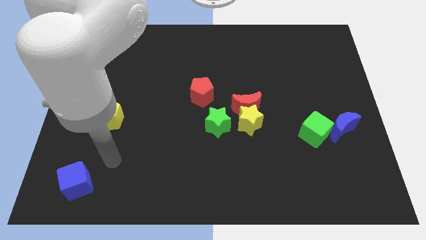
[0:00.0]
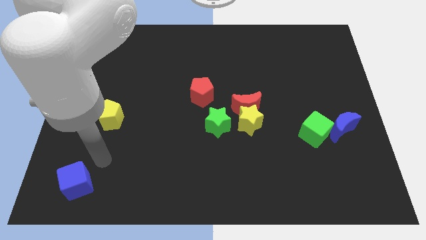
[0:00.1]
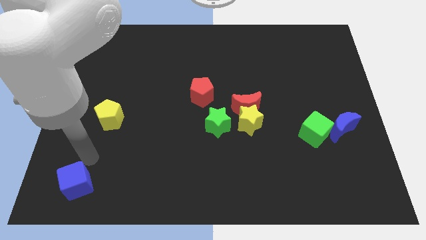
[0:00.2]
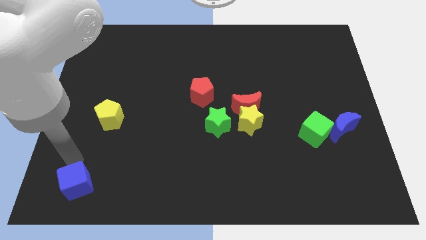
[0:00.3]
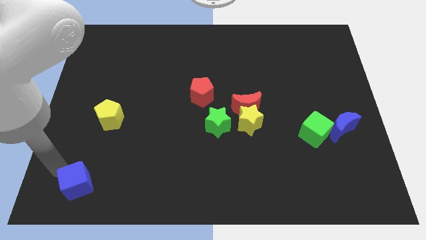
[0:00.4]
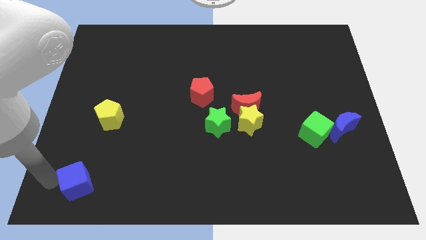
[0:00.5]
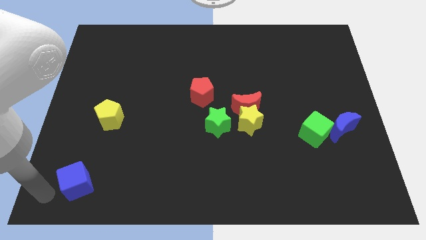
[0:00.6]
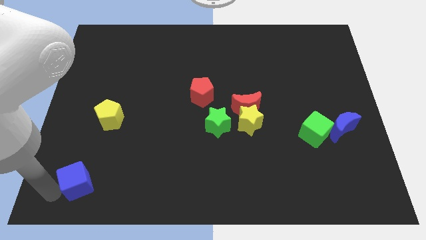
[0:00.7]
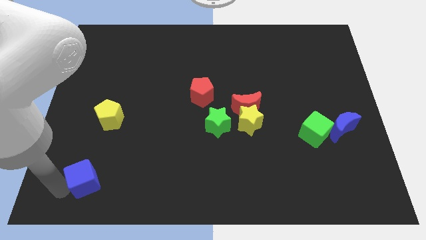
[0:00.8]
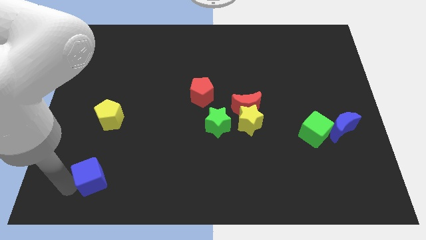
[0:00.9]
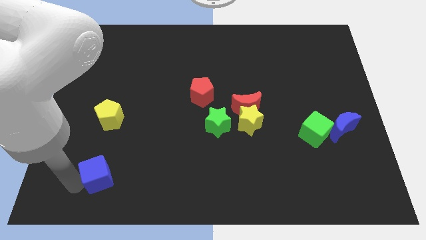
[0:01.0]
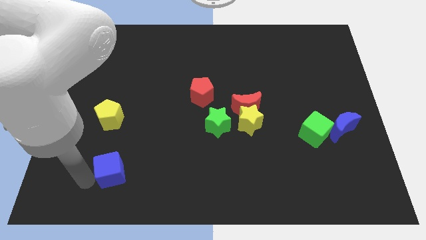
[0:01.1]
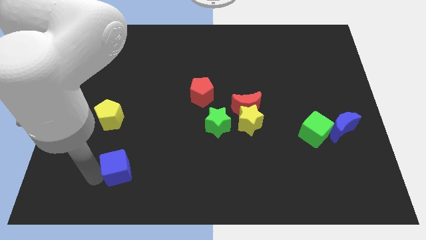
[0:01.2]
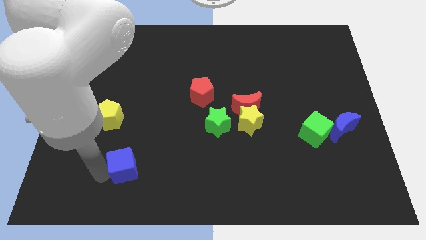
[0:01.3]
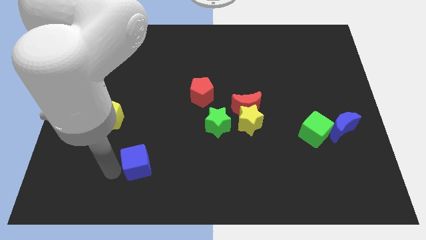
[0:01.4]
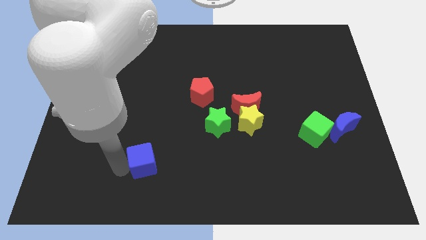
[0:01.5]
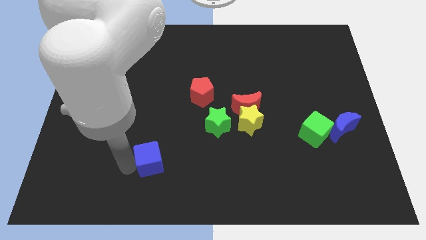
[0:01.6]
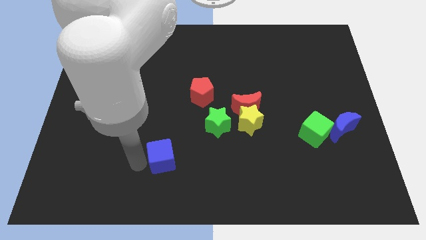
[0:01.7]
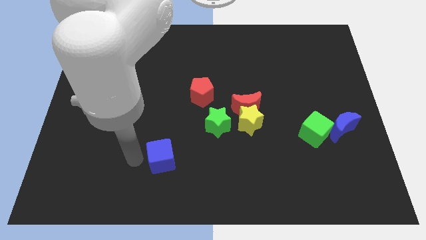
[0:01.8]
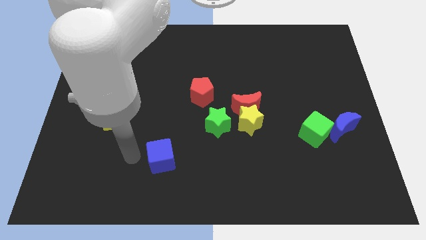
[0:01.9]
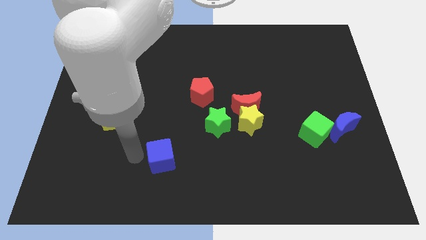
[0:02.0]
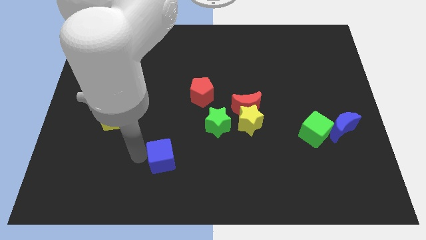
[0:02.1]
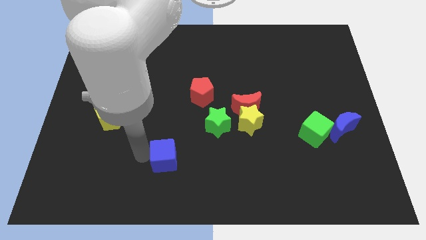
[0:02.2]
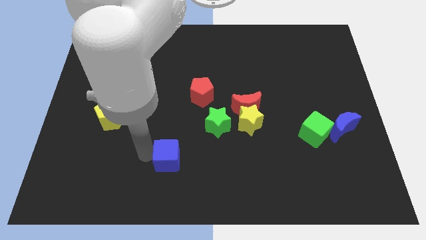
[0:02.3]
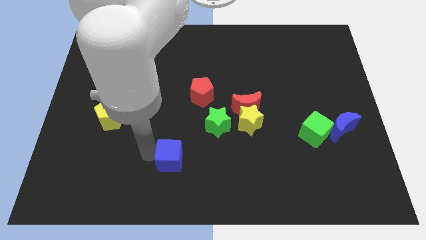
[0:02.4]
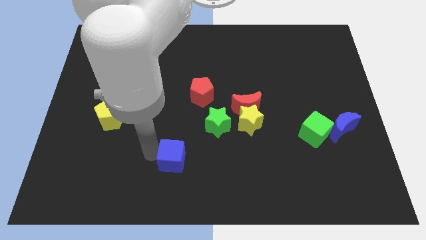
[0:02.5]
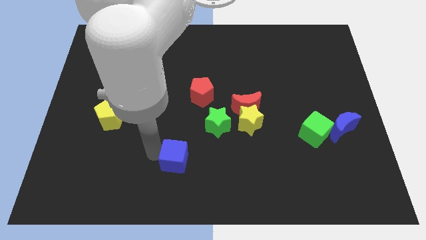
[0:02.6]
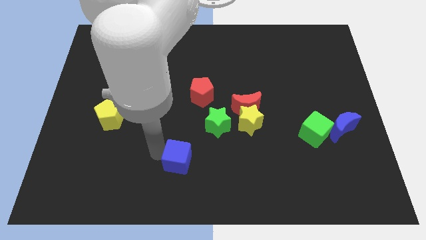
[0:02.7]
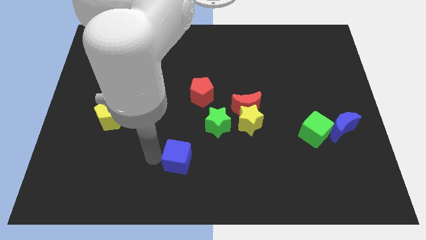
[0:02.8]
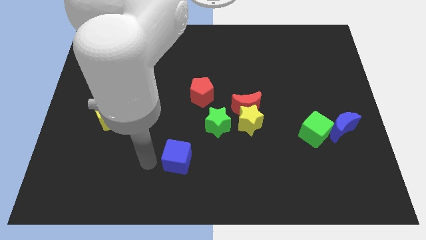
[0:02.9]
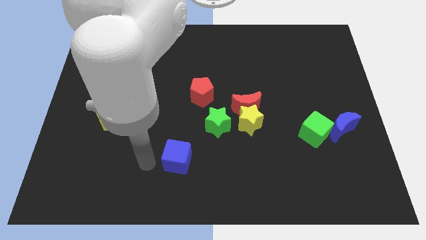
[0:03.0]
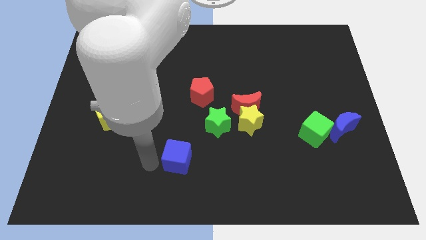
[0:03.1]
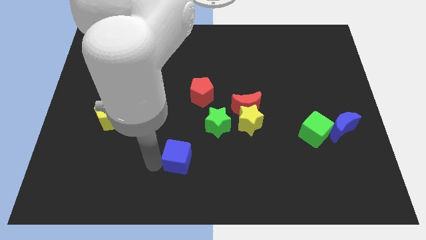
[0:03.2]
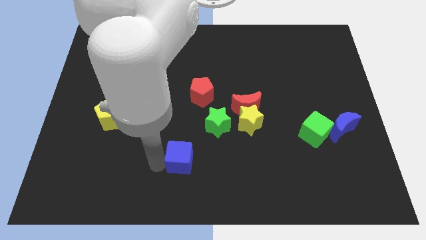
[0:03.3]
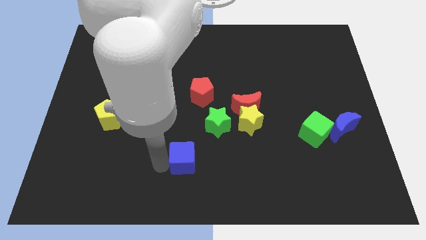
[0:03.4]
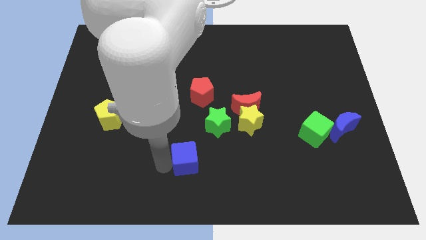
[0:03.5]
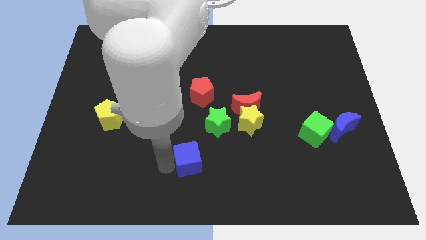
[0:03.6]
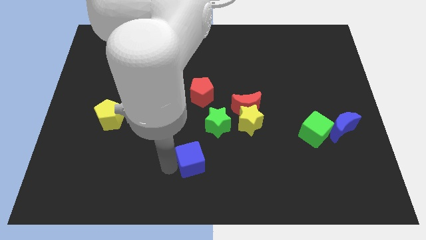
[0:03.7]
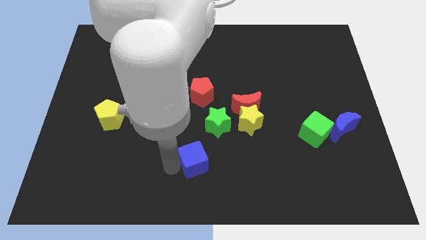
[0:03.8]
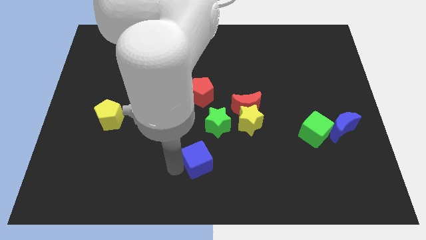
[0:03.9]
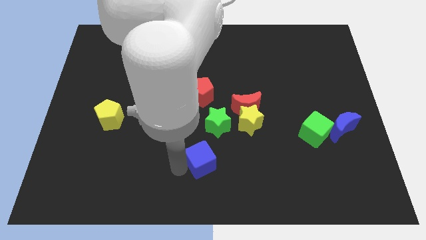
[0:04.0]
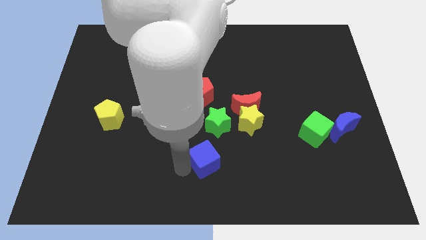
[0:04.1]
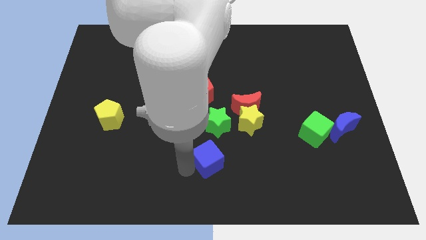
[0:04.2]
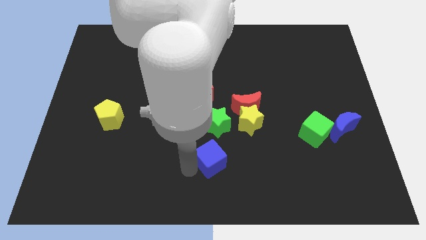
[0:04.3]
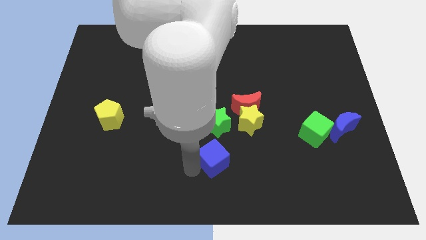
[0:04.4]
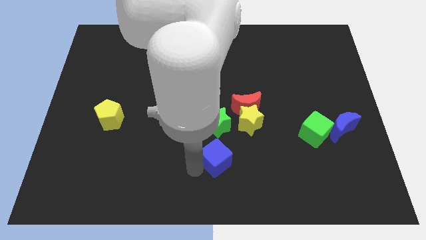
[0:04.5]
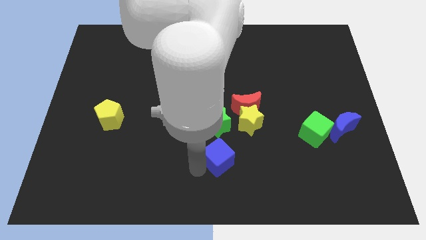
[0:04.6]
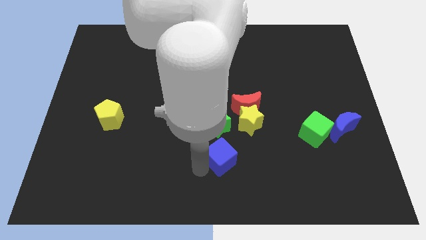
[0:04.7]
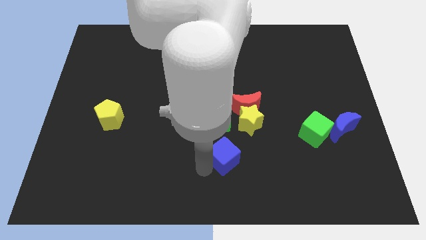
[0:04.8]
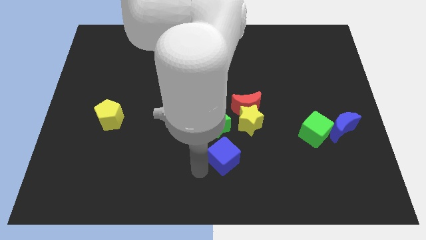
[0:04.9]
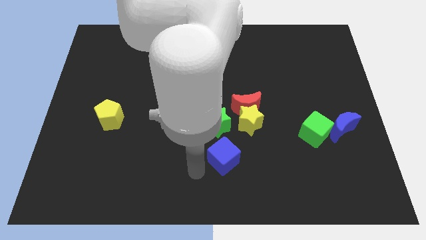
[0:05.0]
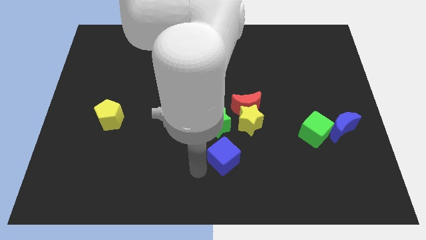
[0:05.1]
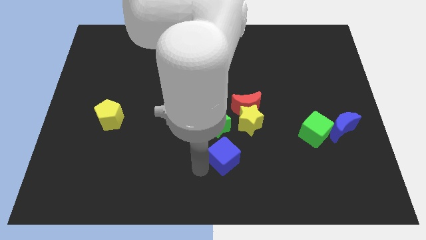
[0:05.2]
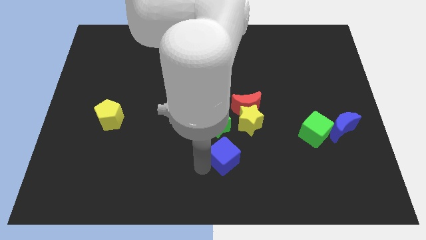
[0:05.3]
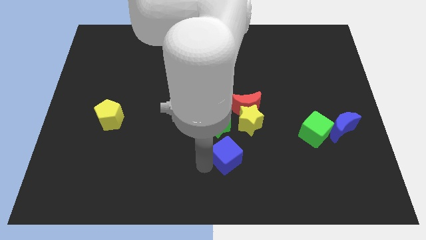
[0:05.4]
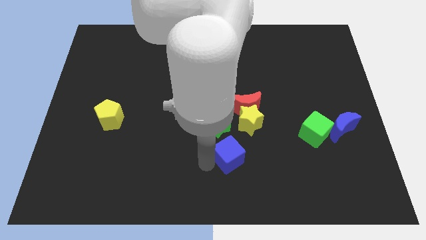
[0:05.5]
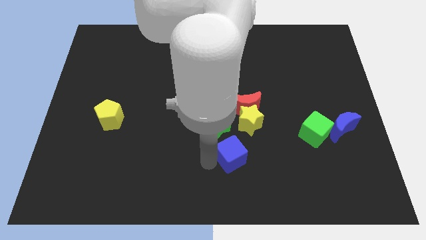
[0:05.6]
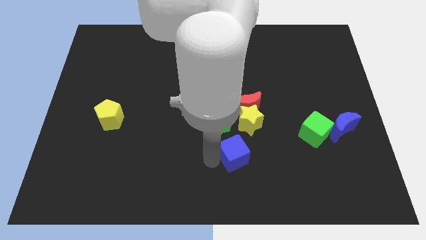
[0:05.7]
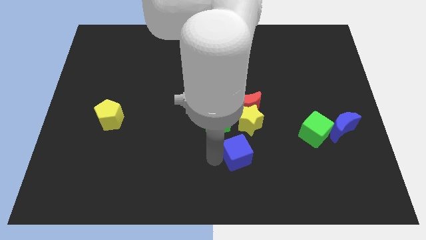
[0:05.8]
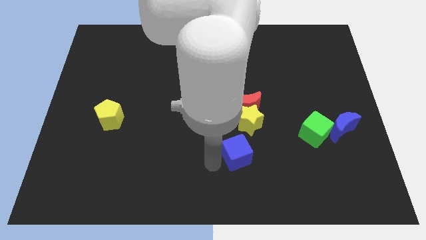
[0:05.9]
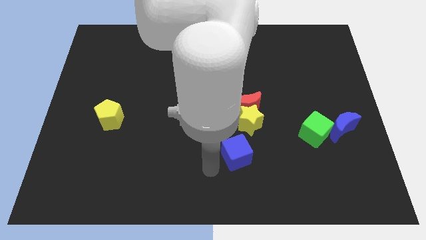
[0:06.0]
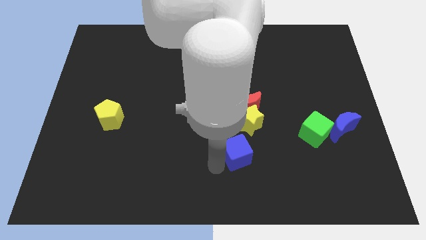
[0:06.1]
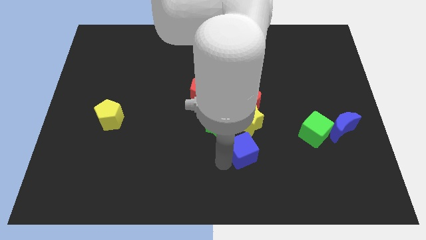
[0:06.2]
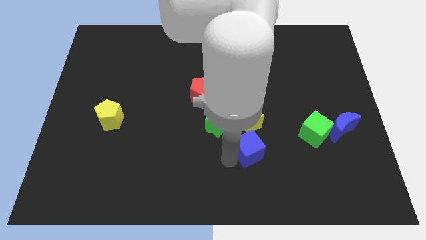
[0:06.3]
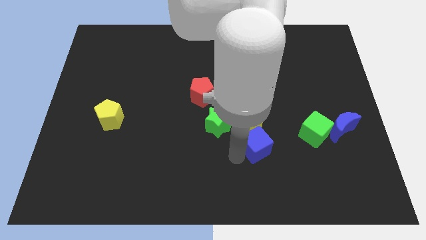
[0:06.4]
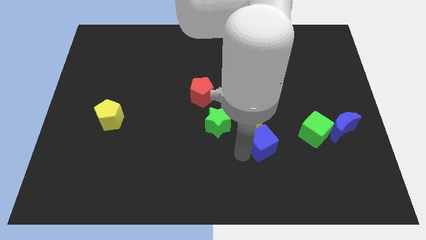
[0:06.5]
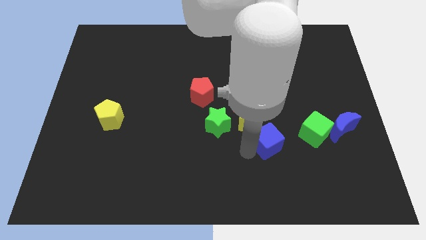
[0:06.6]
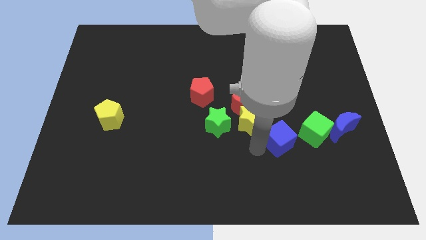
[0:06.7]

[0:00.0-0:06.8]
slide the blue cube just right of the yellow star

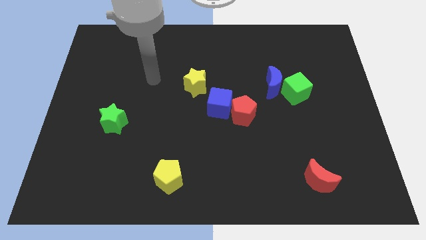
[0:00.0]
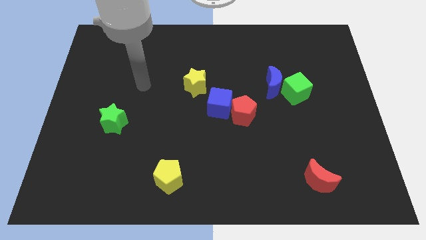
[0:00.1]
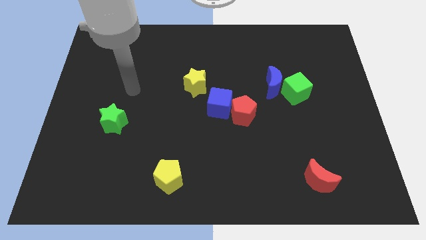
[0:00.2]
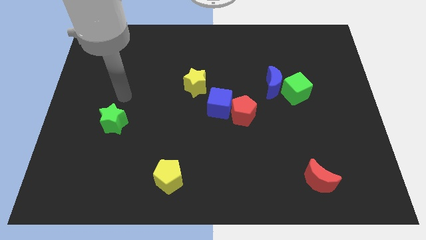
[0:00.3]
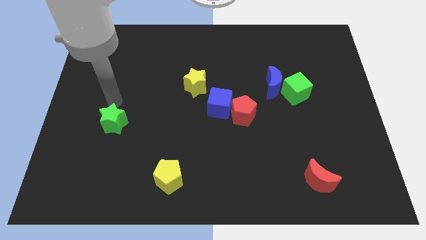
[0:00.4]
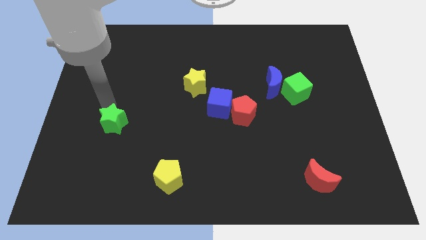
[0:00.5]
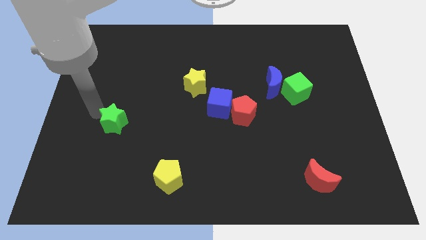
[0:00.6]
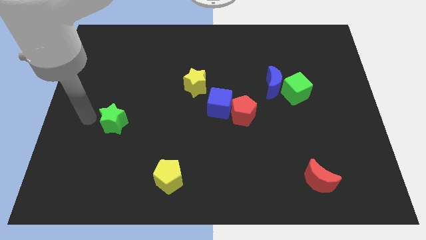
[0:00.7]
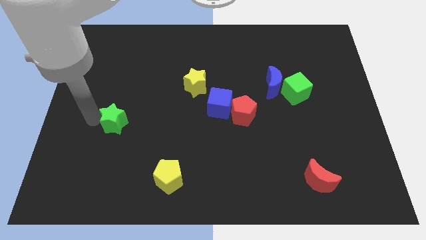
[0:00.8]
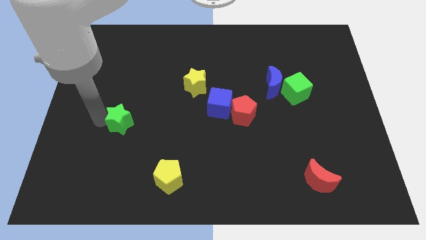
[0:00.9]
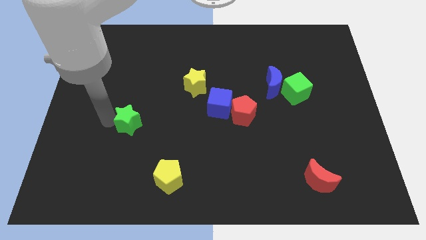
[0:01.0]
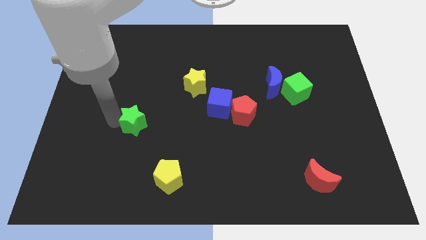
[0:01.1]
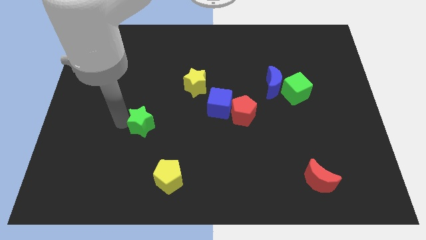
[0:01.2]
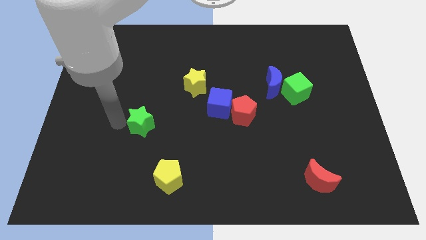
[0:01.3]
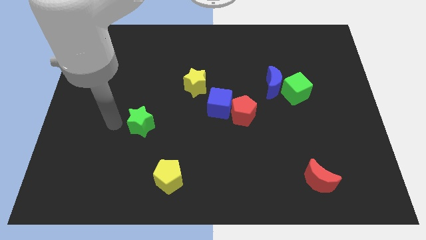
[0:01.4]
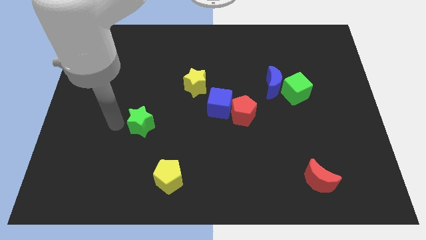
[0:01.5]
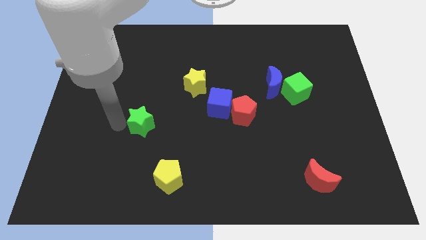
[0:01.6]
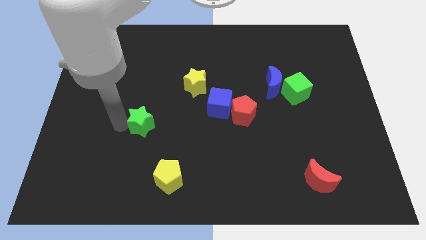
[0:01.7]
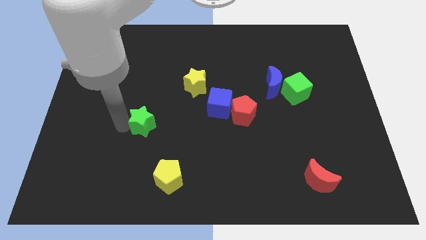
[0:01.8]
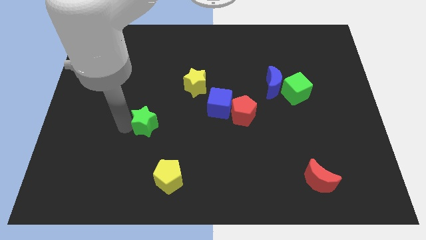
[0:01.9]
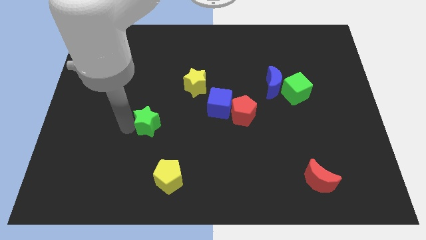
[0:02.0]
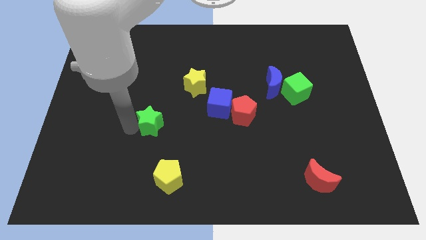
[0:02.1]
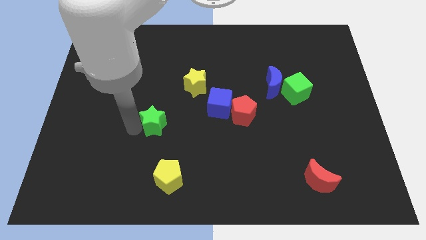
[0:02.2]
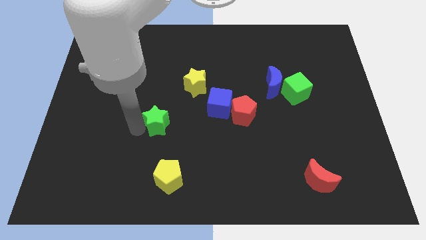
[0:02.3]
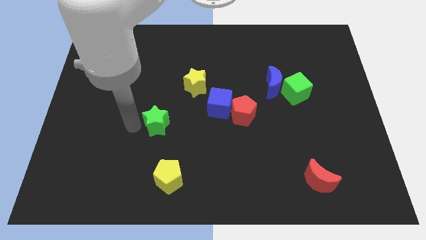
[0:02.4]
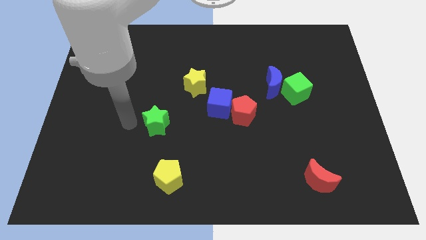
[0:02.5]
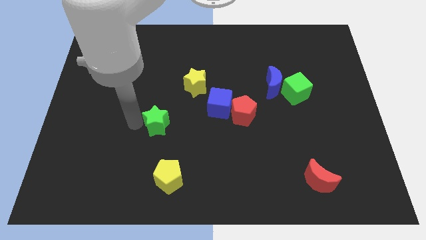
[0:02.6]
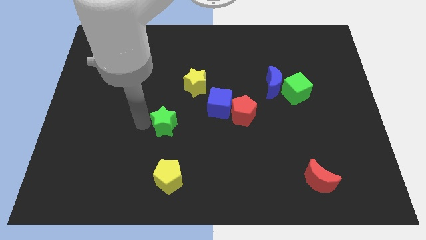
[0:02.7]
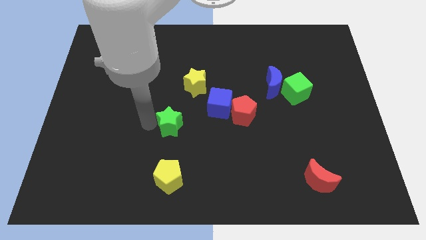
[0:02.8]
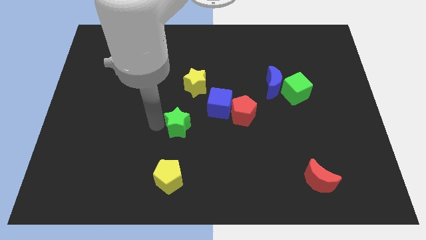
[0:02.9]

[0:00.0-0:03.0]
slide the green star diagonally down and to the left of the blue cube
